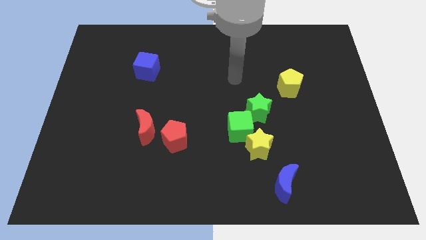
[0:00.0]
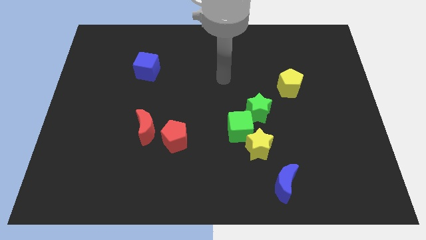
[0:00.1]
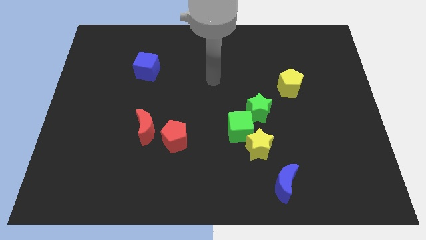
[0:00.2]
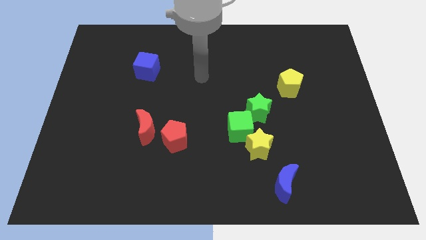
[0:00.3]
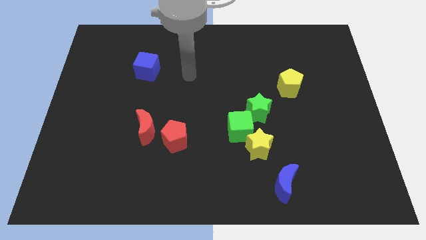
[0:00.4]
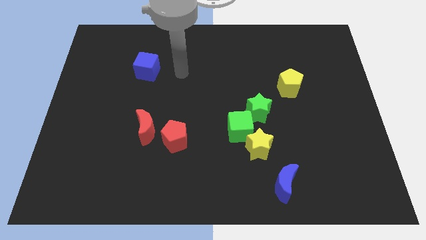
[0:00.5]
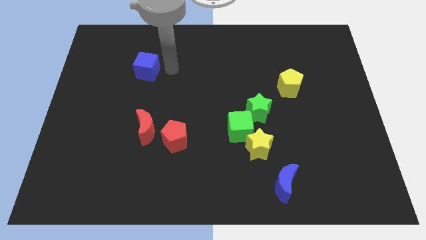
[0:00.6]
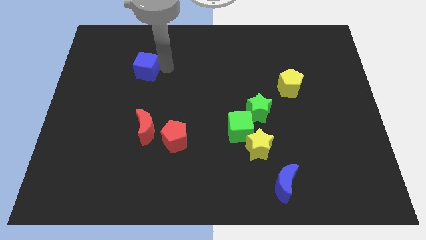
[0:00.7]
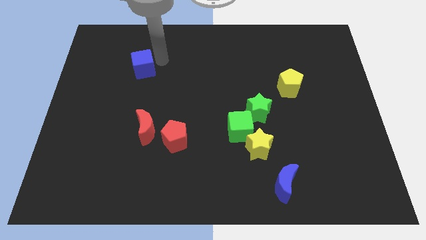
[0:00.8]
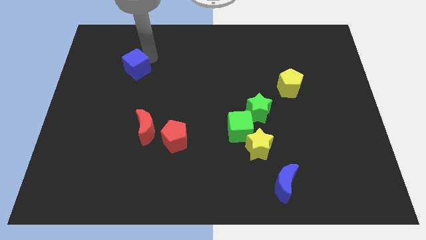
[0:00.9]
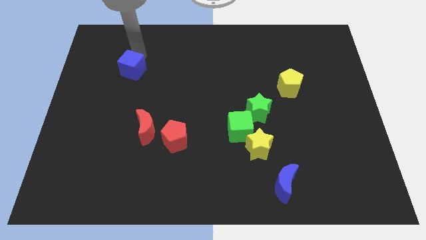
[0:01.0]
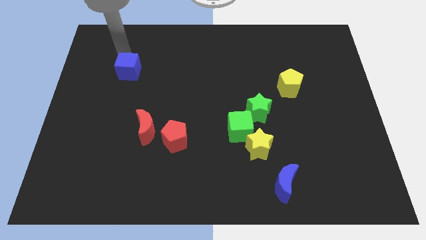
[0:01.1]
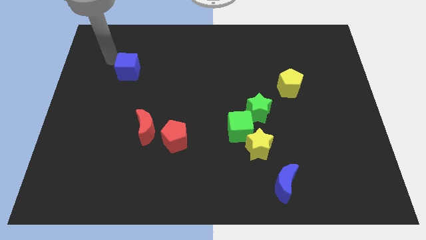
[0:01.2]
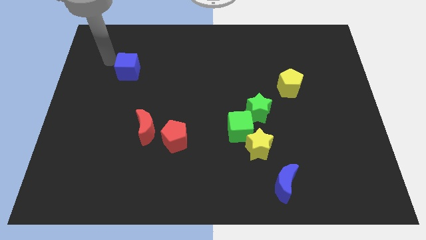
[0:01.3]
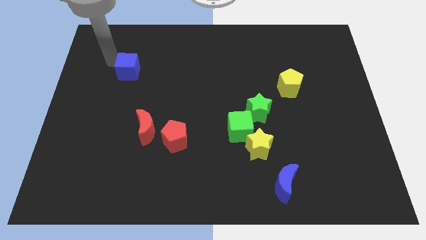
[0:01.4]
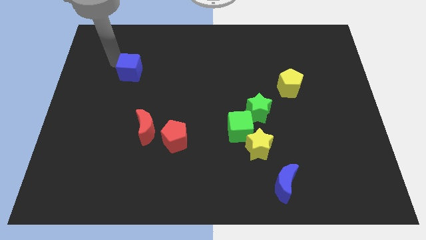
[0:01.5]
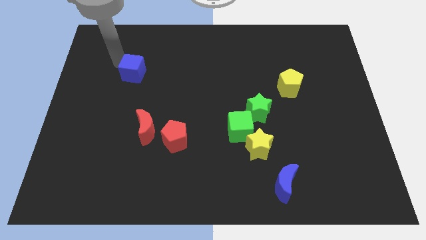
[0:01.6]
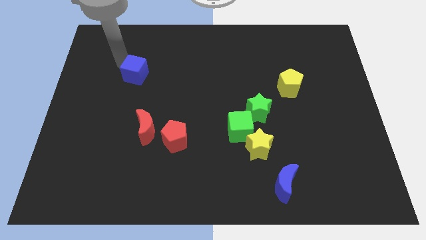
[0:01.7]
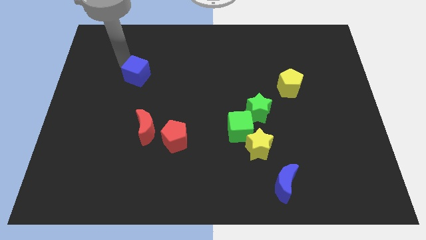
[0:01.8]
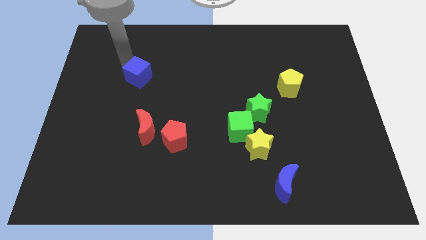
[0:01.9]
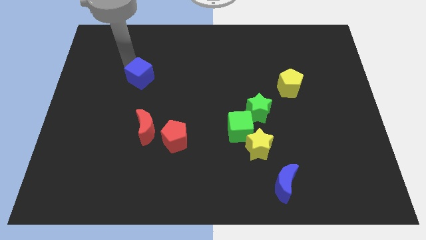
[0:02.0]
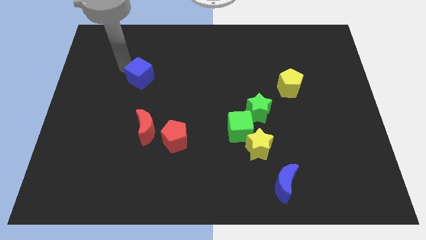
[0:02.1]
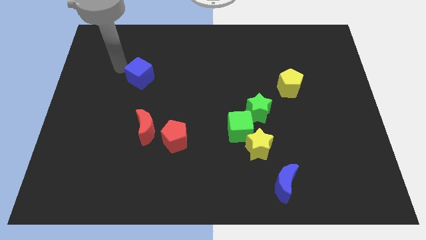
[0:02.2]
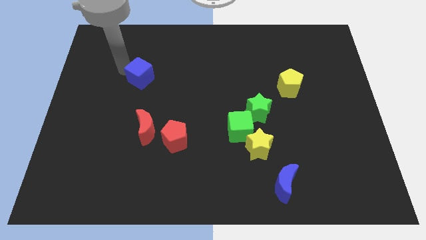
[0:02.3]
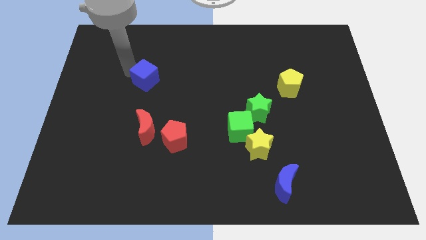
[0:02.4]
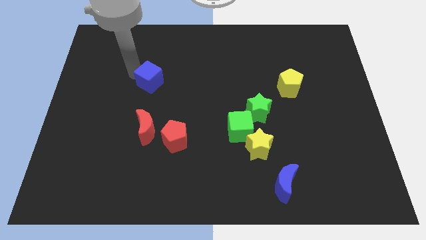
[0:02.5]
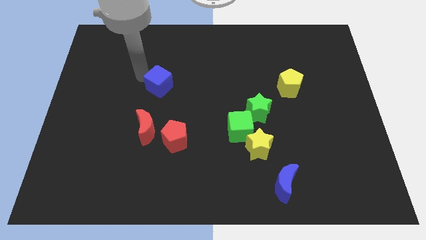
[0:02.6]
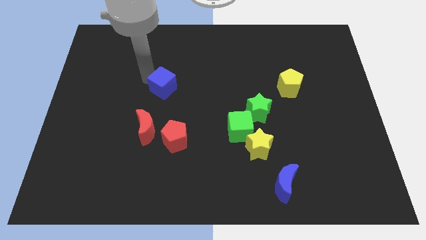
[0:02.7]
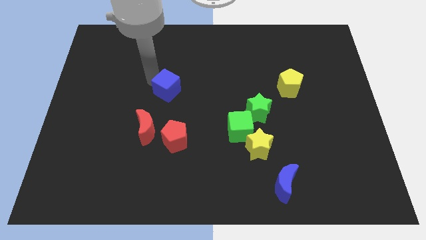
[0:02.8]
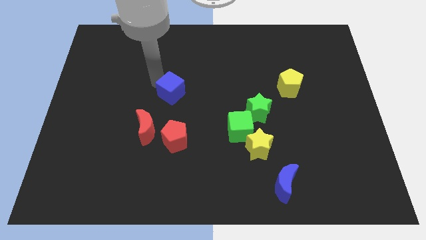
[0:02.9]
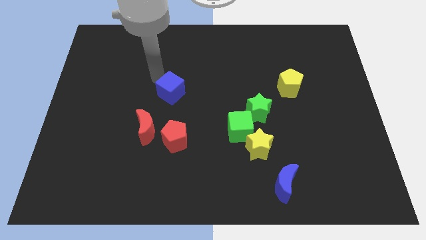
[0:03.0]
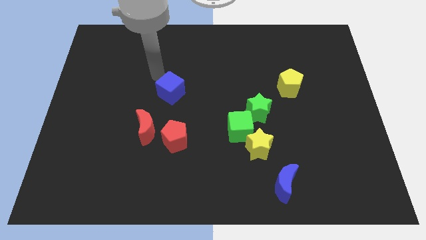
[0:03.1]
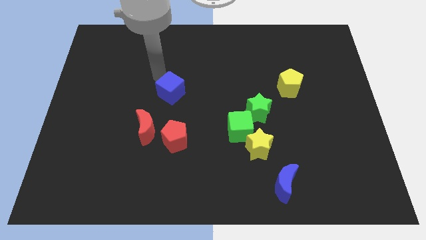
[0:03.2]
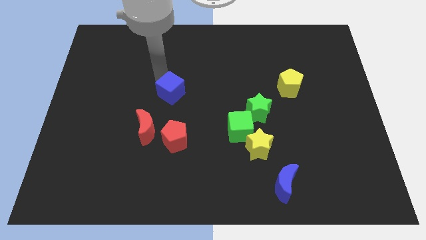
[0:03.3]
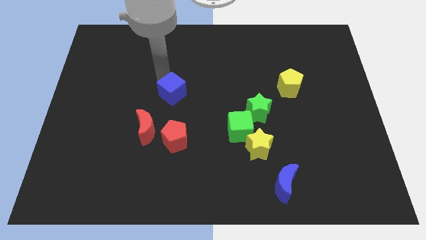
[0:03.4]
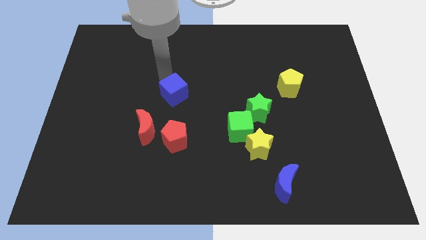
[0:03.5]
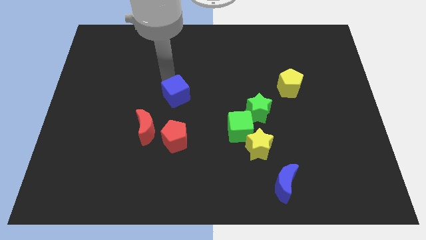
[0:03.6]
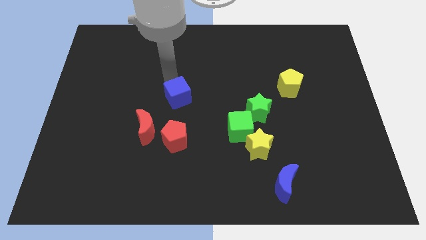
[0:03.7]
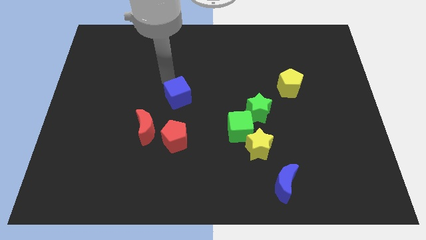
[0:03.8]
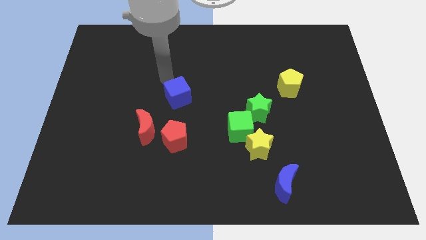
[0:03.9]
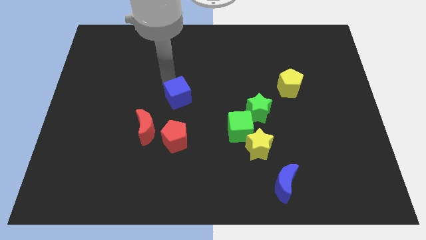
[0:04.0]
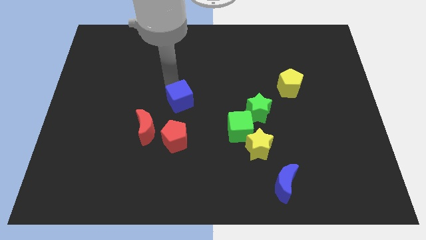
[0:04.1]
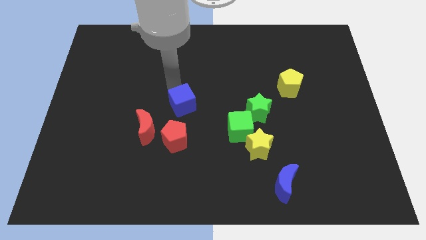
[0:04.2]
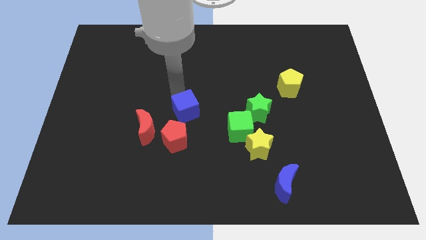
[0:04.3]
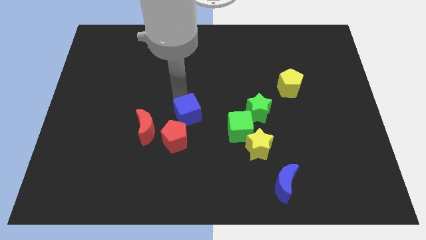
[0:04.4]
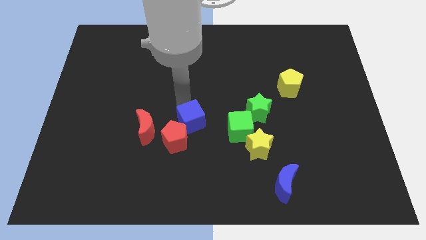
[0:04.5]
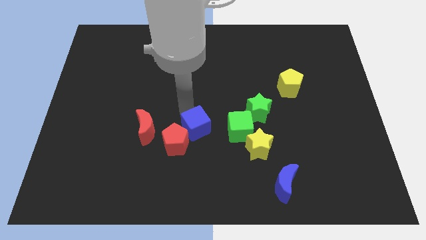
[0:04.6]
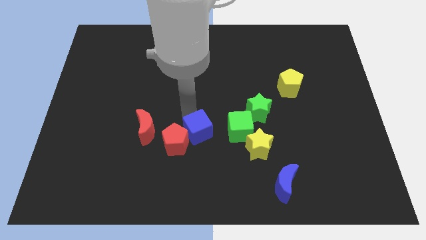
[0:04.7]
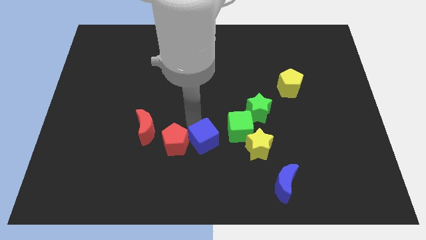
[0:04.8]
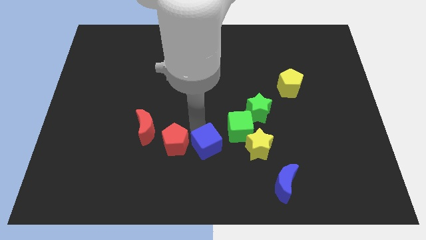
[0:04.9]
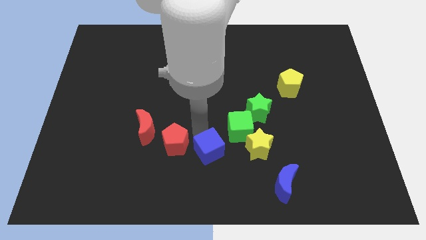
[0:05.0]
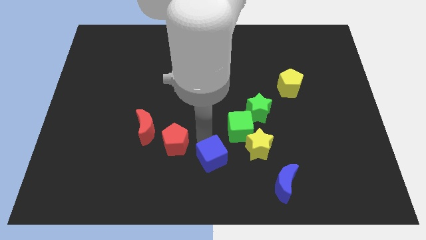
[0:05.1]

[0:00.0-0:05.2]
move the blue cube to the bottom side

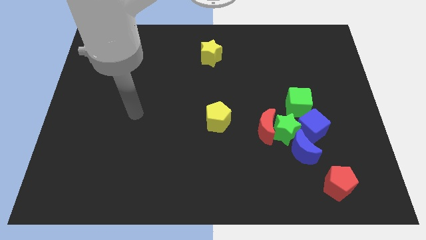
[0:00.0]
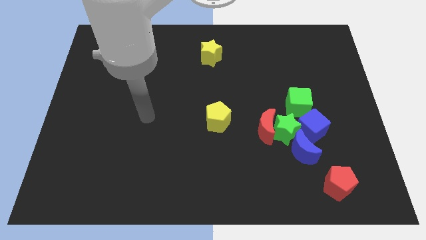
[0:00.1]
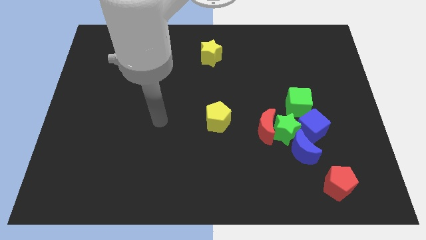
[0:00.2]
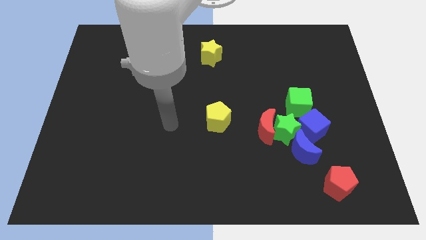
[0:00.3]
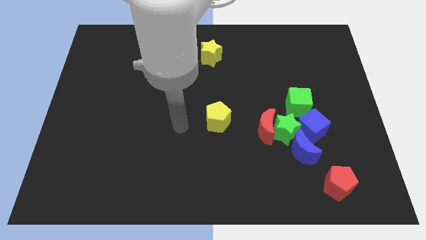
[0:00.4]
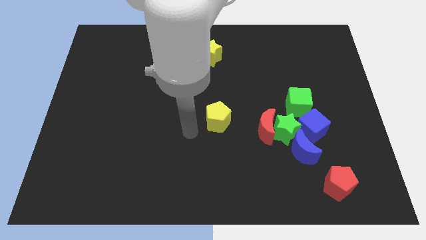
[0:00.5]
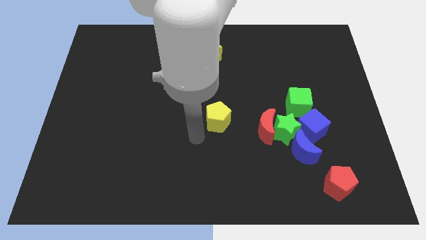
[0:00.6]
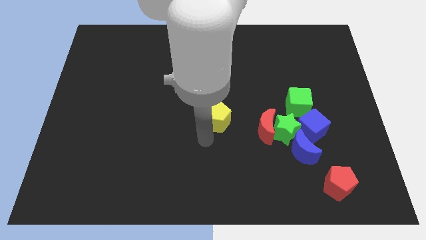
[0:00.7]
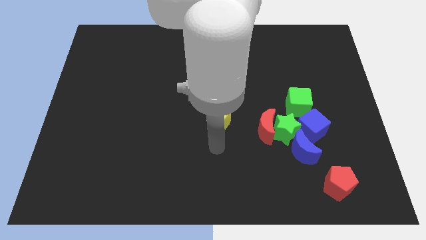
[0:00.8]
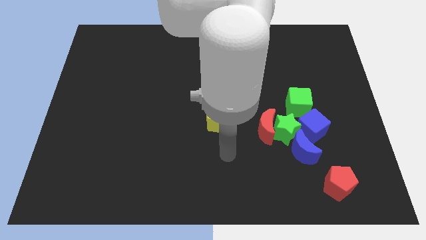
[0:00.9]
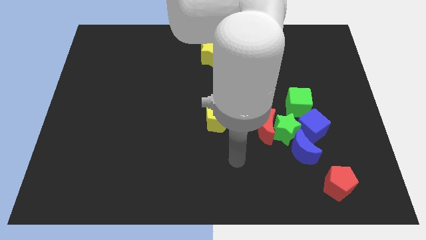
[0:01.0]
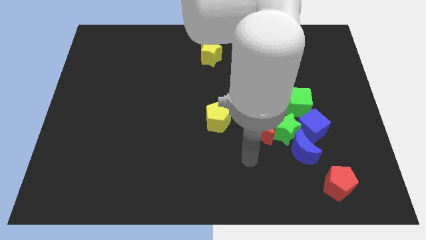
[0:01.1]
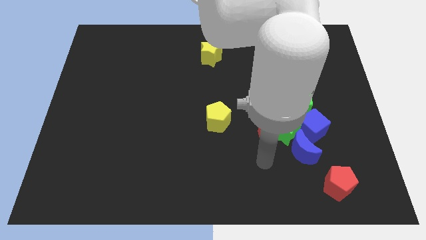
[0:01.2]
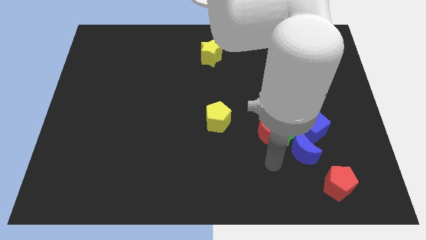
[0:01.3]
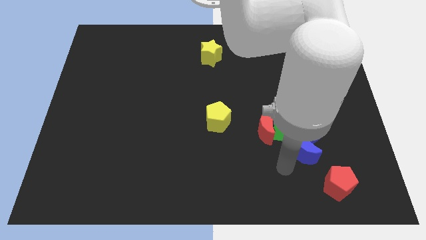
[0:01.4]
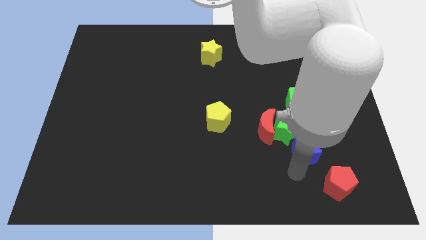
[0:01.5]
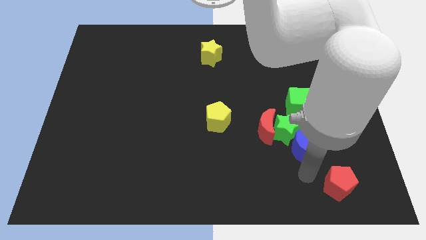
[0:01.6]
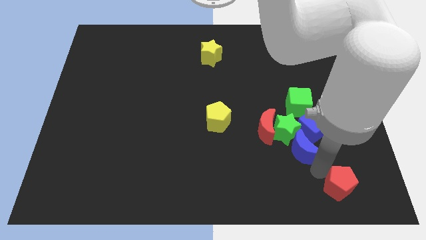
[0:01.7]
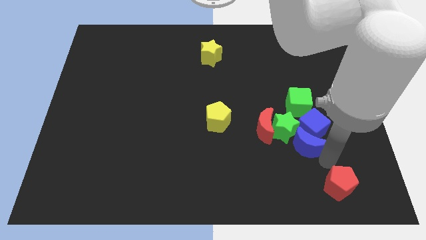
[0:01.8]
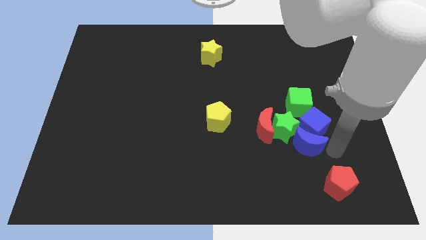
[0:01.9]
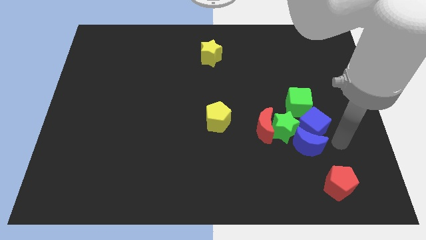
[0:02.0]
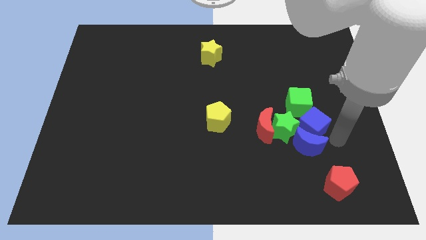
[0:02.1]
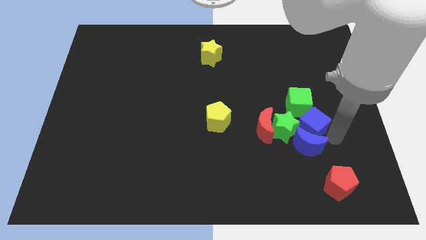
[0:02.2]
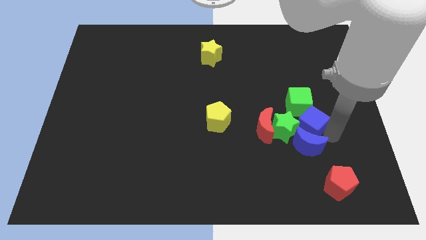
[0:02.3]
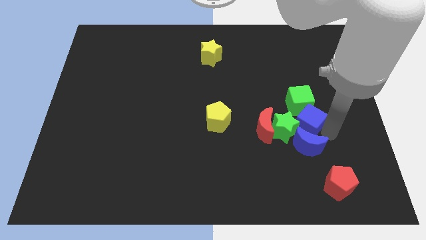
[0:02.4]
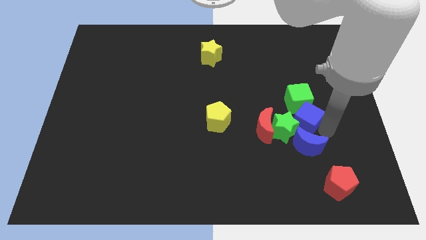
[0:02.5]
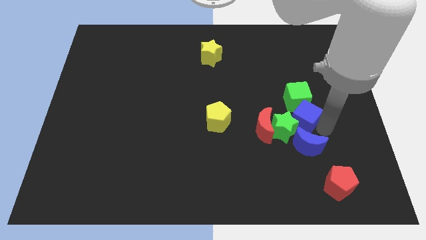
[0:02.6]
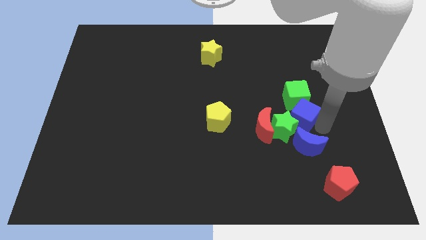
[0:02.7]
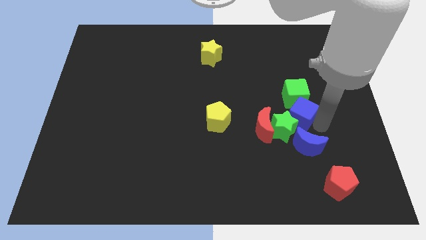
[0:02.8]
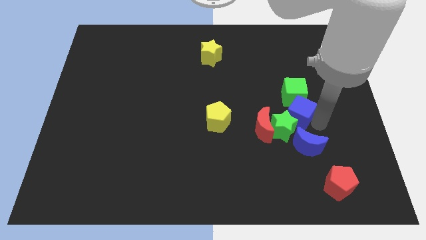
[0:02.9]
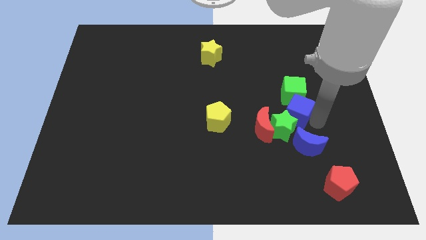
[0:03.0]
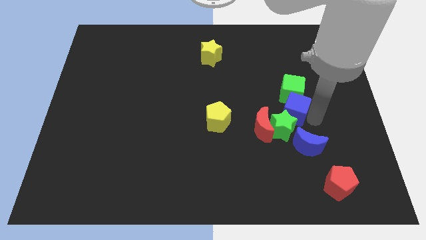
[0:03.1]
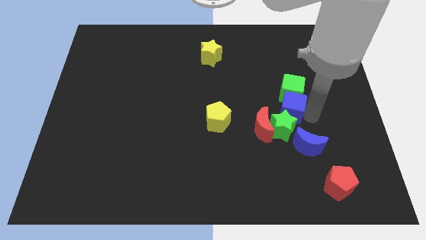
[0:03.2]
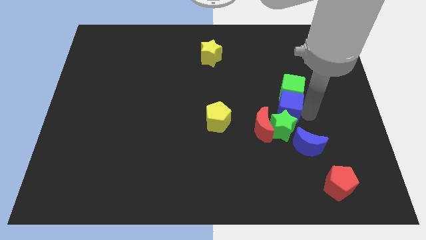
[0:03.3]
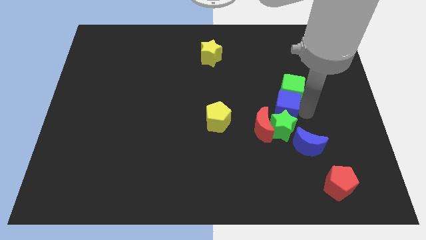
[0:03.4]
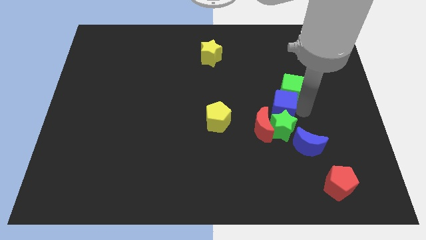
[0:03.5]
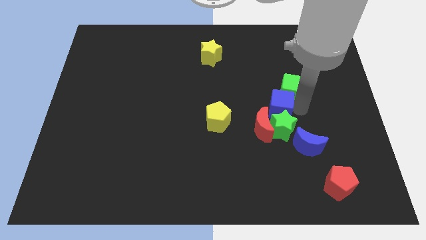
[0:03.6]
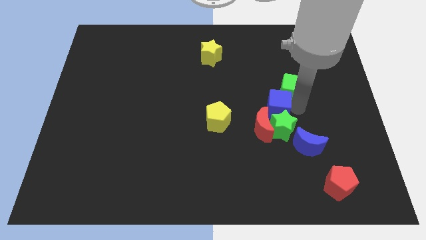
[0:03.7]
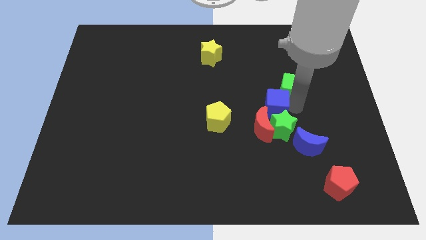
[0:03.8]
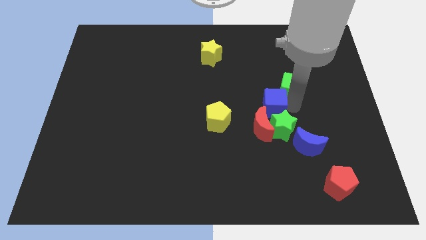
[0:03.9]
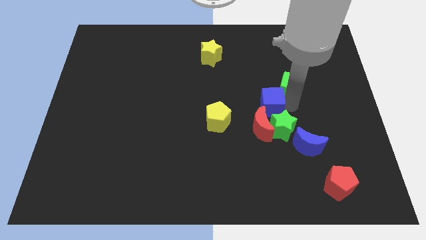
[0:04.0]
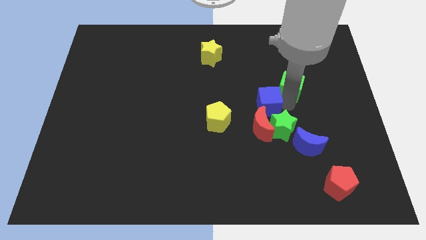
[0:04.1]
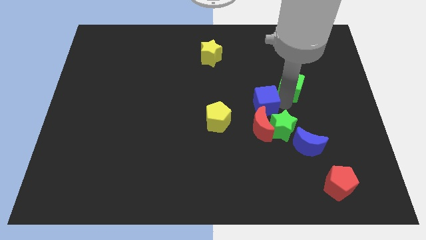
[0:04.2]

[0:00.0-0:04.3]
push the blue cube to the middle of the board
